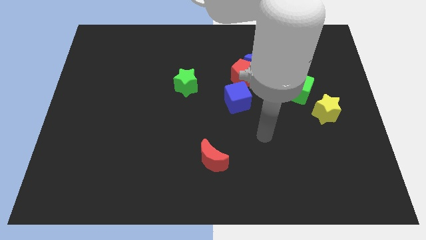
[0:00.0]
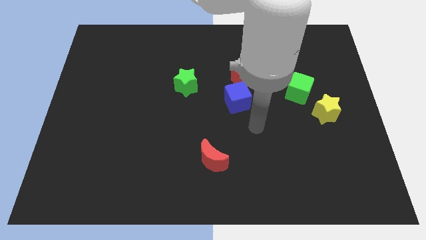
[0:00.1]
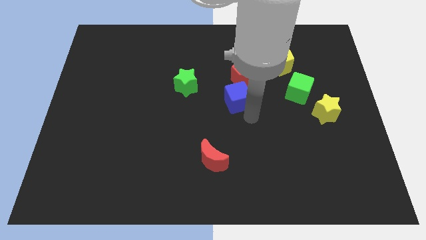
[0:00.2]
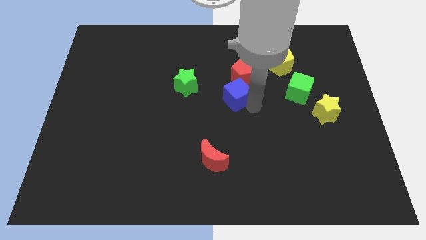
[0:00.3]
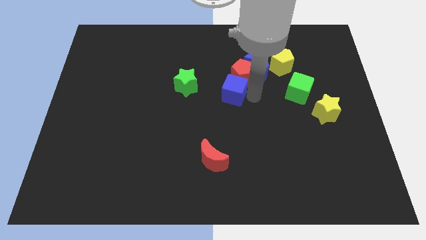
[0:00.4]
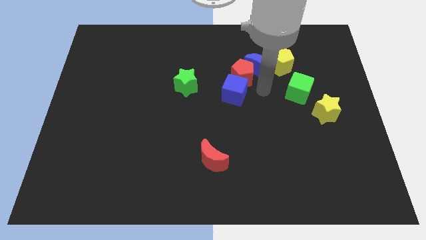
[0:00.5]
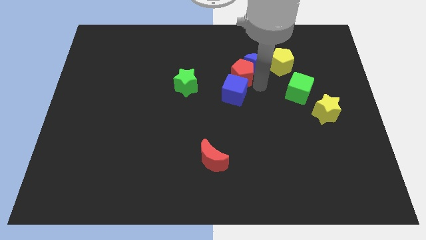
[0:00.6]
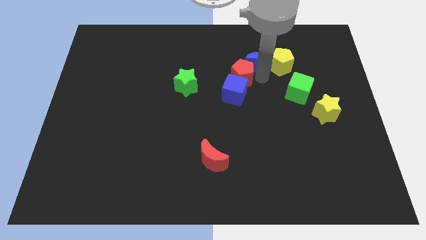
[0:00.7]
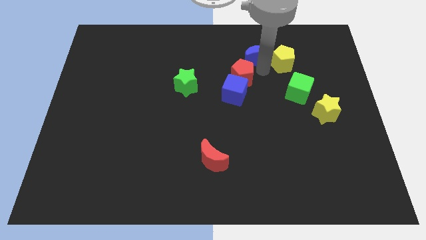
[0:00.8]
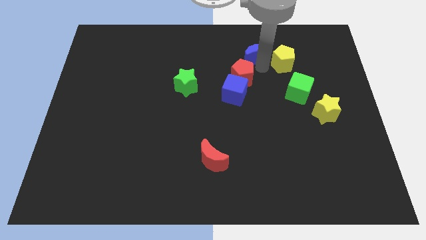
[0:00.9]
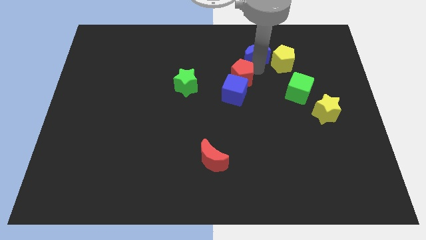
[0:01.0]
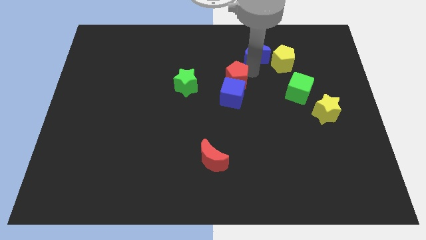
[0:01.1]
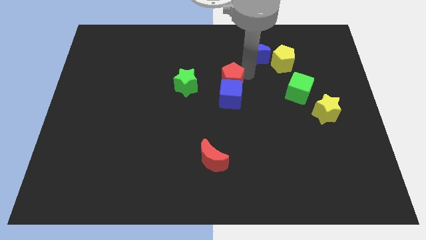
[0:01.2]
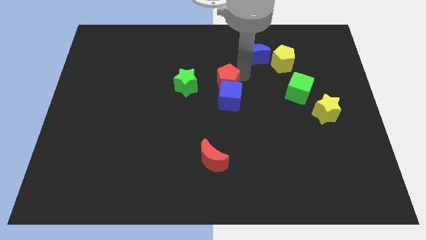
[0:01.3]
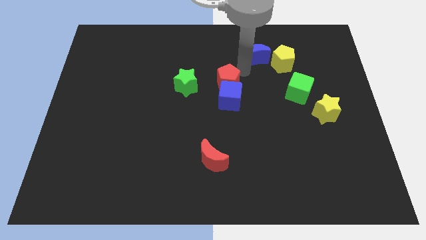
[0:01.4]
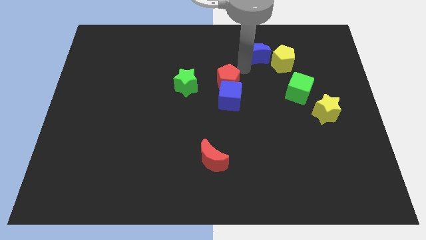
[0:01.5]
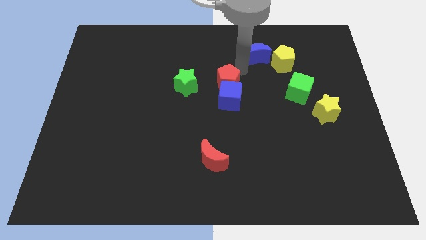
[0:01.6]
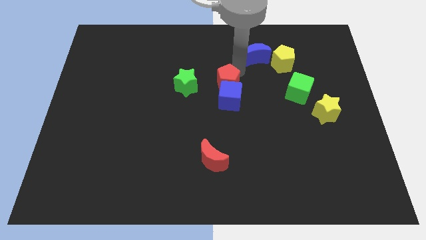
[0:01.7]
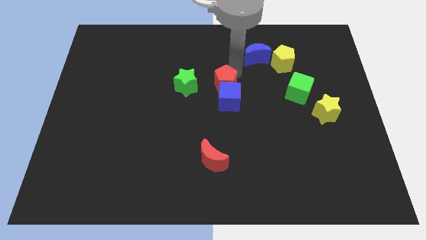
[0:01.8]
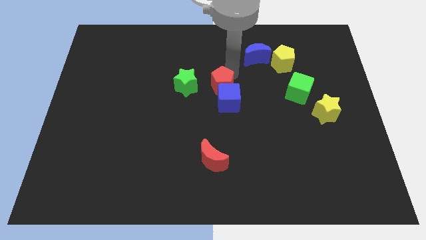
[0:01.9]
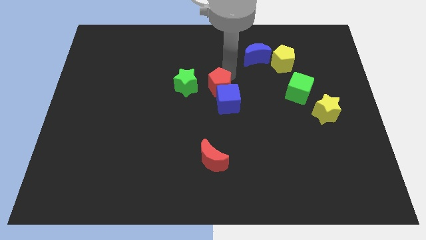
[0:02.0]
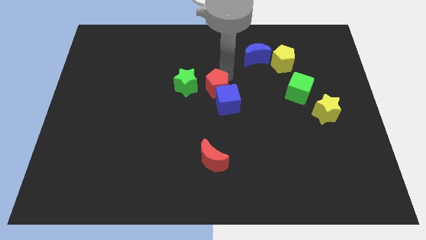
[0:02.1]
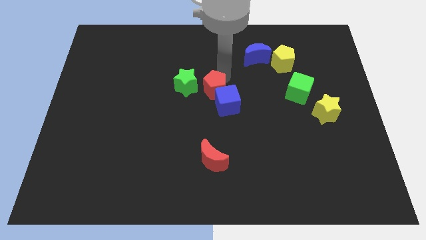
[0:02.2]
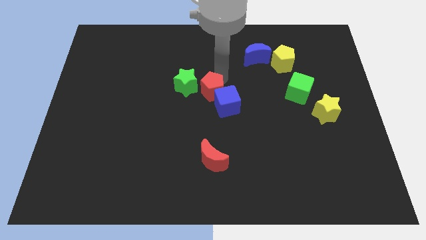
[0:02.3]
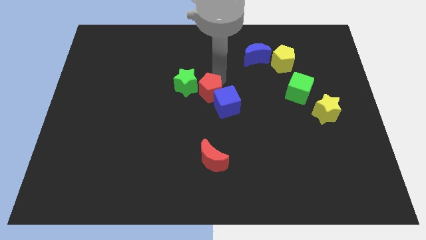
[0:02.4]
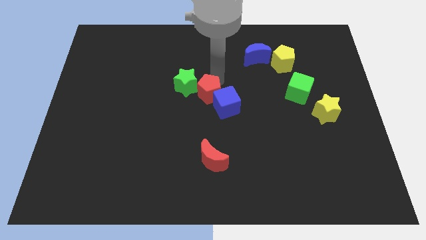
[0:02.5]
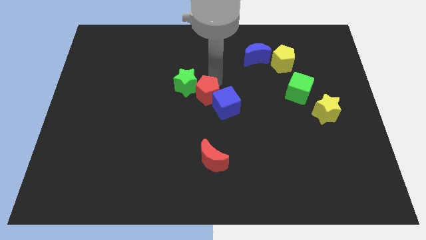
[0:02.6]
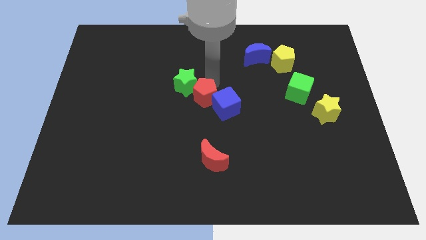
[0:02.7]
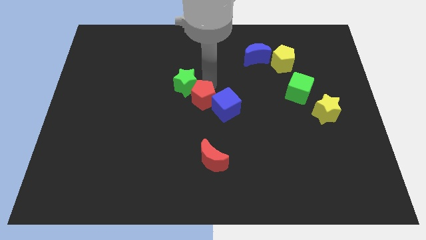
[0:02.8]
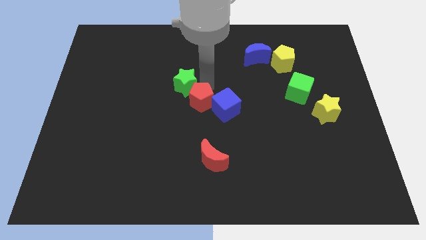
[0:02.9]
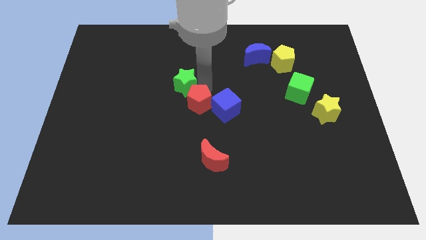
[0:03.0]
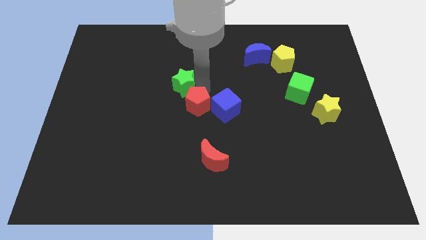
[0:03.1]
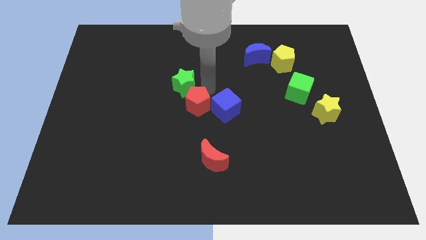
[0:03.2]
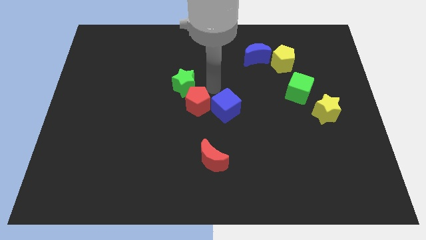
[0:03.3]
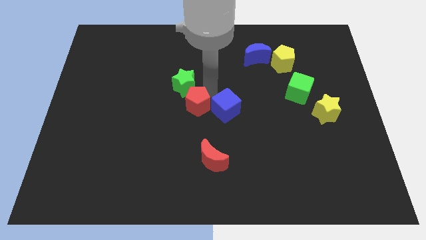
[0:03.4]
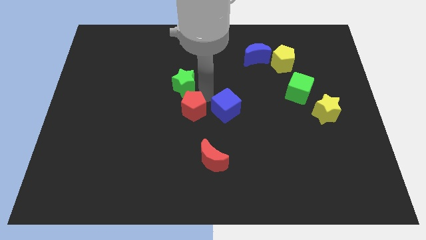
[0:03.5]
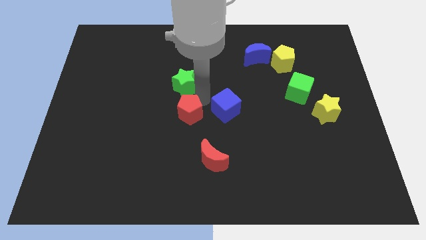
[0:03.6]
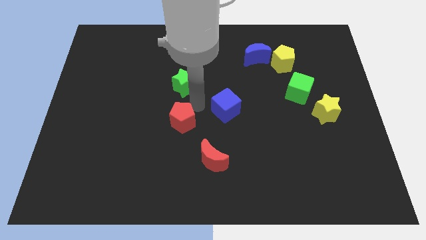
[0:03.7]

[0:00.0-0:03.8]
slide the red pentagon down and then left

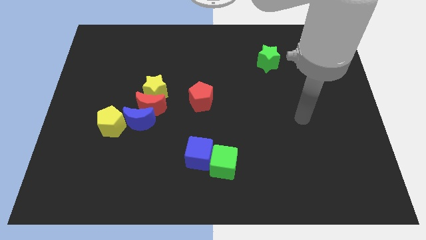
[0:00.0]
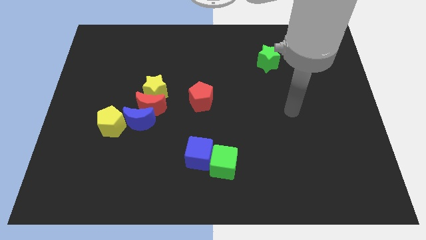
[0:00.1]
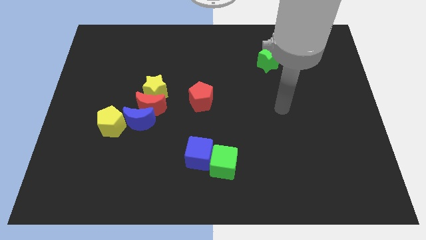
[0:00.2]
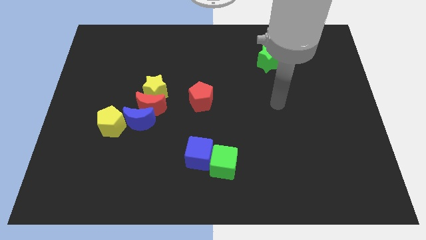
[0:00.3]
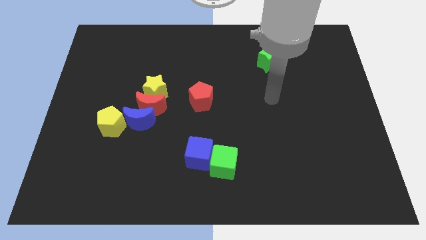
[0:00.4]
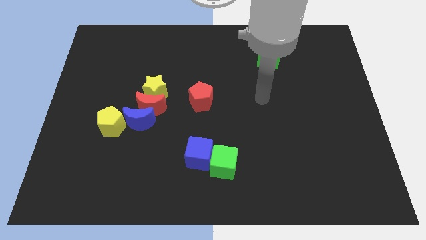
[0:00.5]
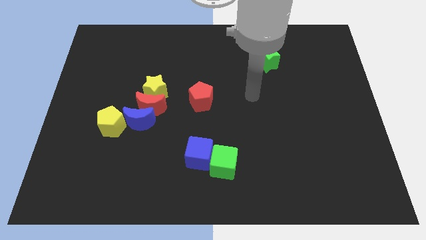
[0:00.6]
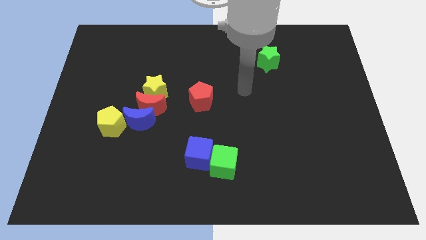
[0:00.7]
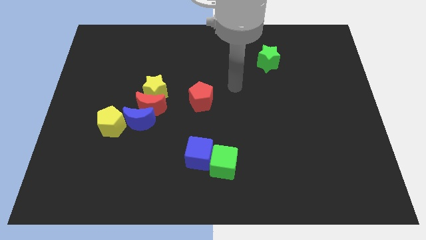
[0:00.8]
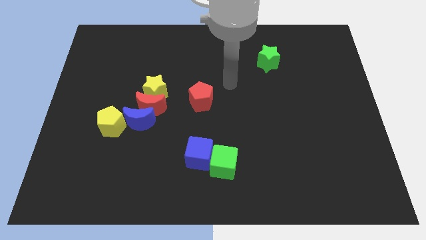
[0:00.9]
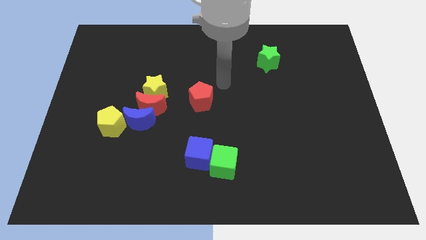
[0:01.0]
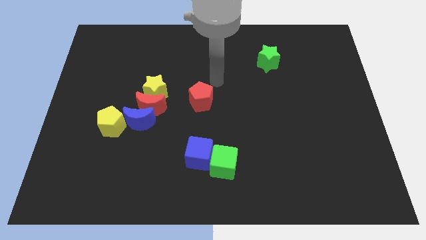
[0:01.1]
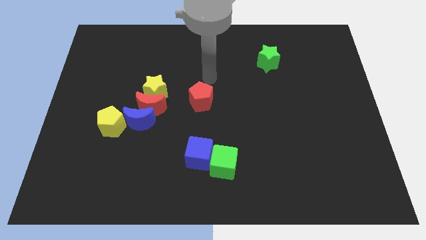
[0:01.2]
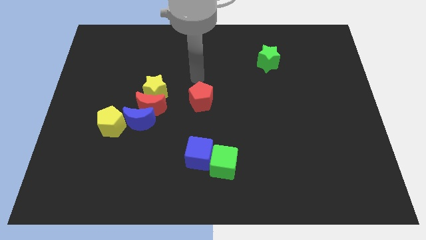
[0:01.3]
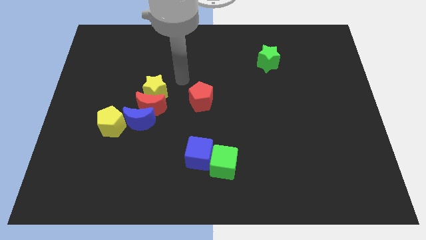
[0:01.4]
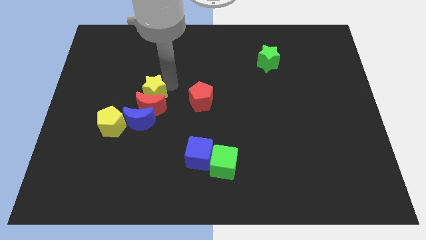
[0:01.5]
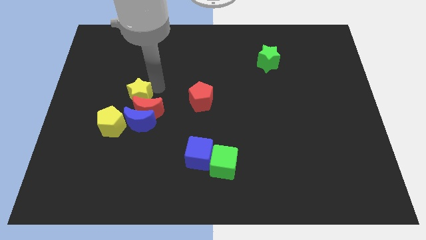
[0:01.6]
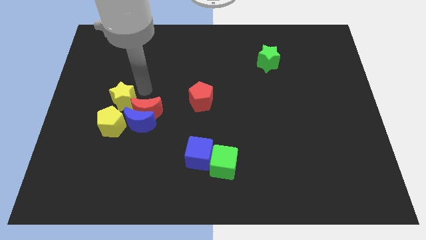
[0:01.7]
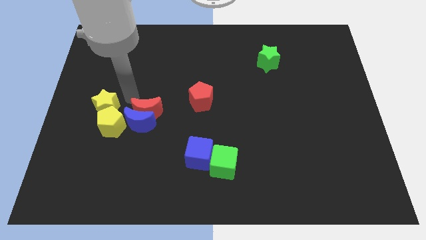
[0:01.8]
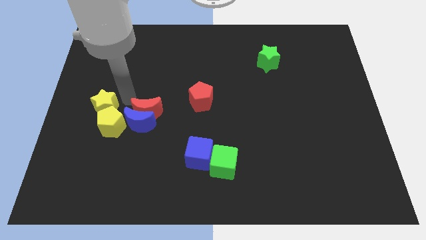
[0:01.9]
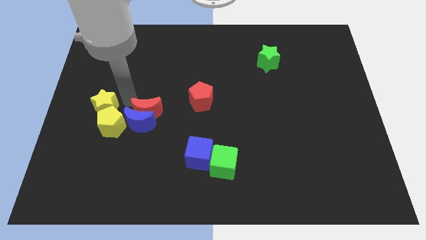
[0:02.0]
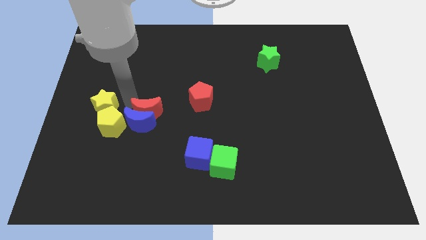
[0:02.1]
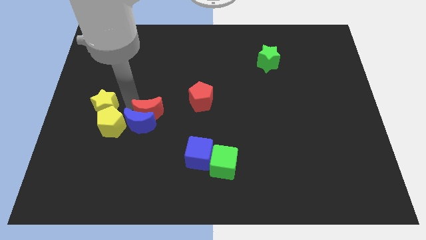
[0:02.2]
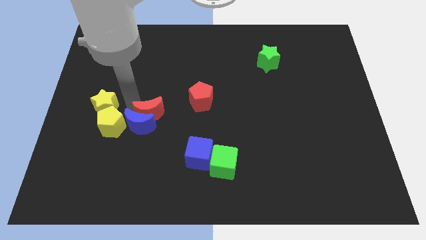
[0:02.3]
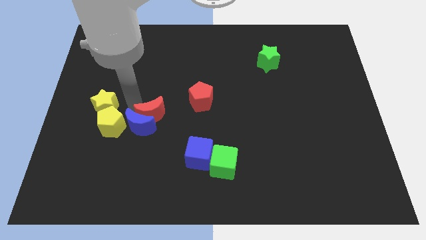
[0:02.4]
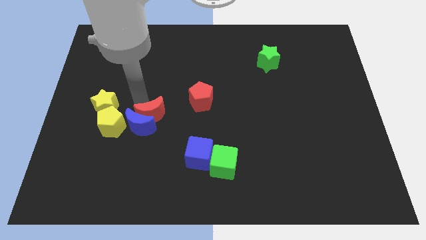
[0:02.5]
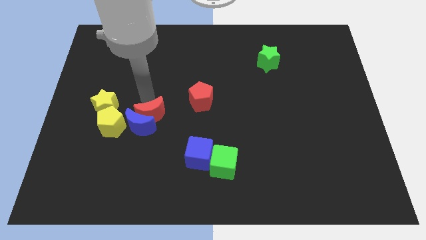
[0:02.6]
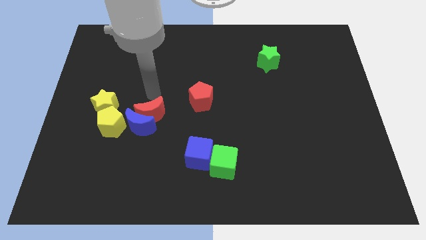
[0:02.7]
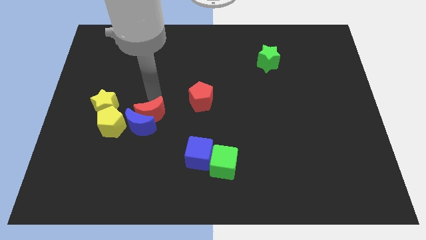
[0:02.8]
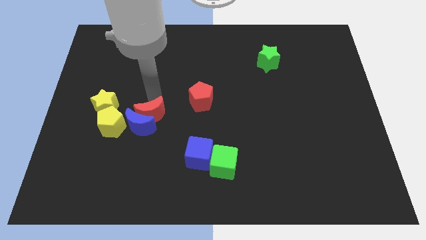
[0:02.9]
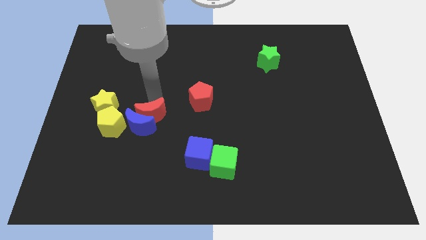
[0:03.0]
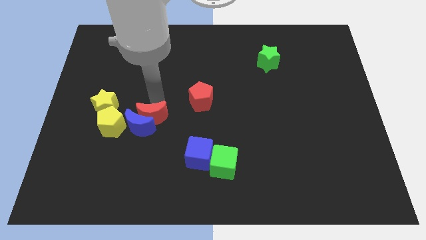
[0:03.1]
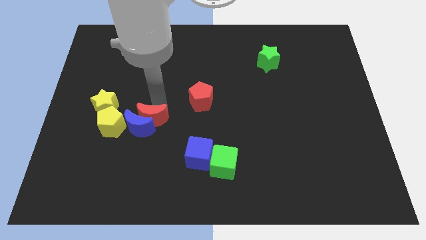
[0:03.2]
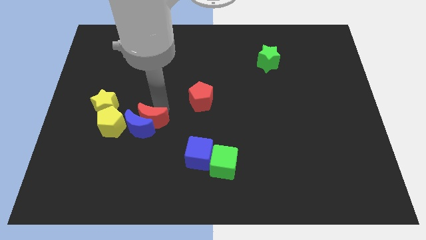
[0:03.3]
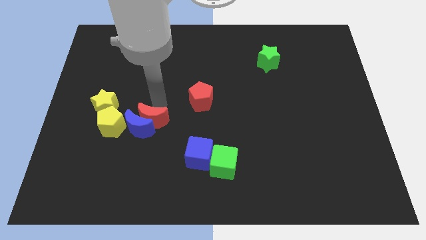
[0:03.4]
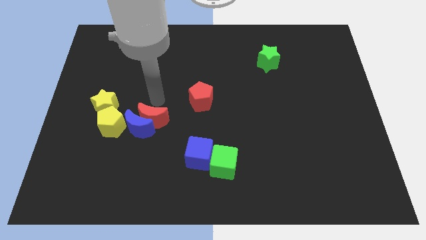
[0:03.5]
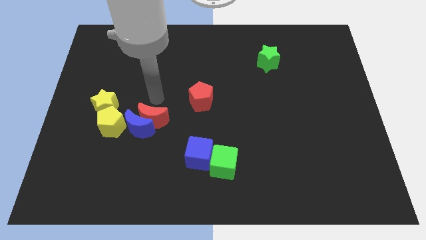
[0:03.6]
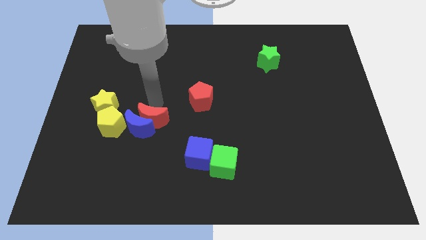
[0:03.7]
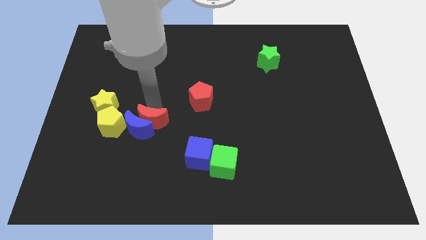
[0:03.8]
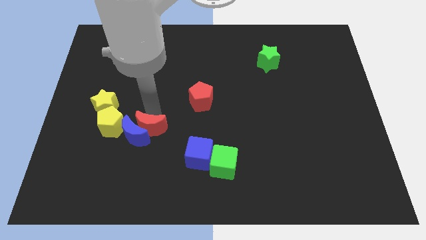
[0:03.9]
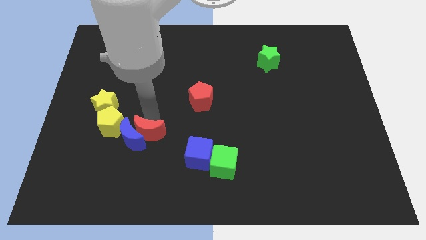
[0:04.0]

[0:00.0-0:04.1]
move the red moon a bit down
